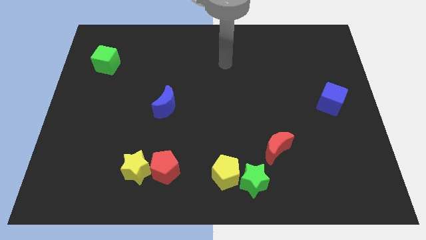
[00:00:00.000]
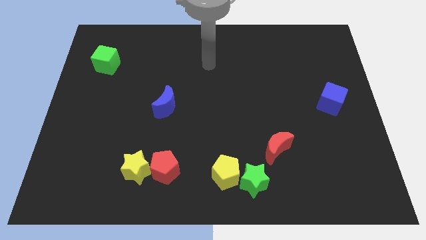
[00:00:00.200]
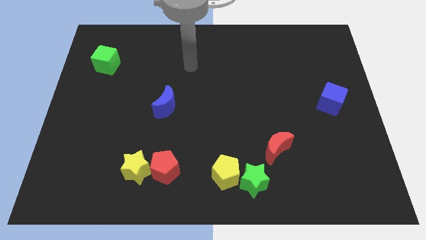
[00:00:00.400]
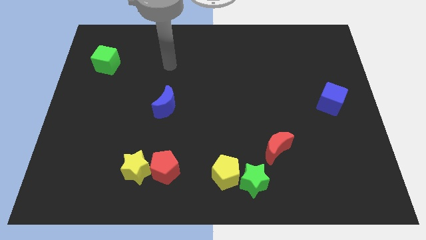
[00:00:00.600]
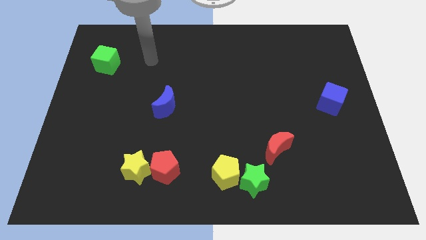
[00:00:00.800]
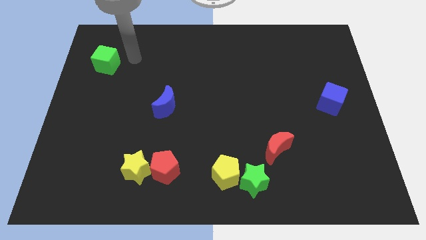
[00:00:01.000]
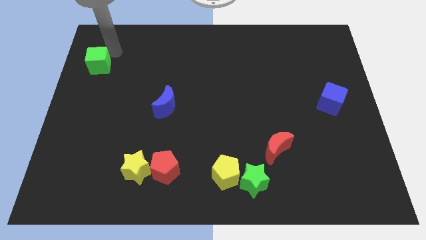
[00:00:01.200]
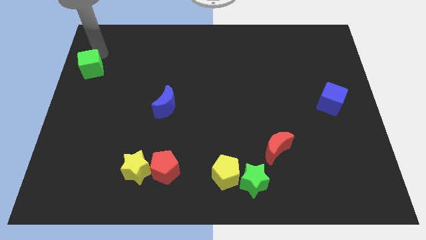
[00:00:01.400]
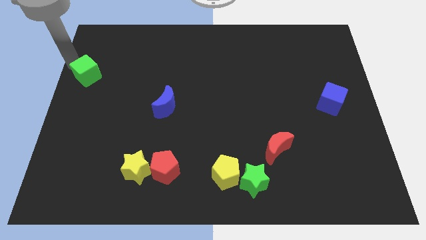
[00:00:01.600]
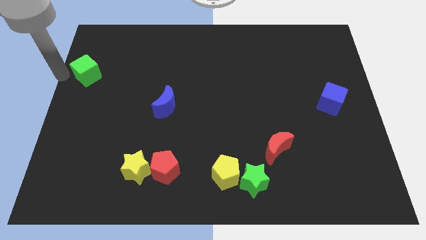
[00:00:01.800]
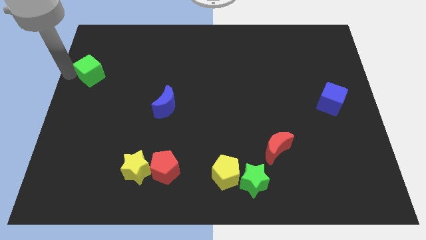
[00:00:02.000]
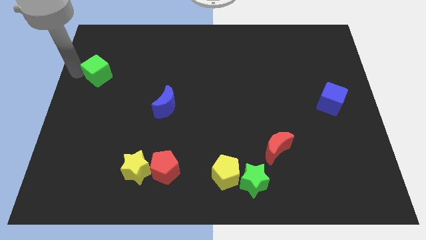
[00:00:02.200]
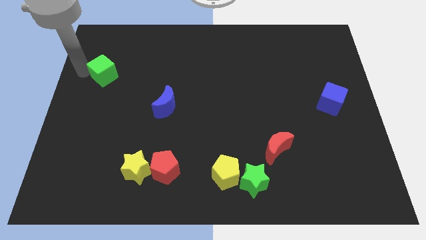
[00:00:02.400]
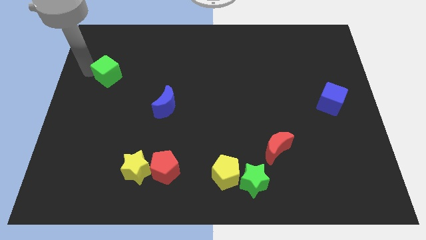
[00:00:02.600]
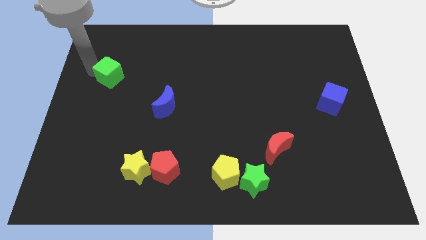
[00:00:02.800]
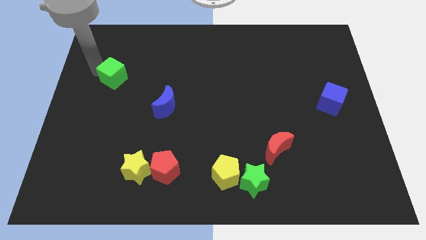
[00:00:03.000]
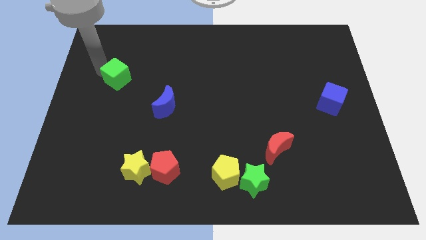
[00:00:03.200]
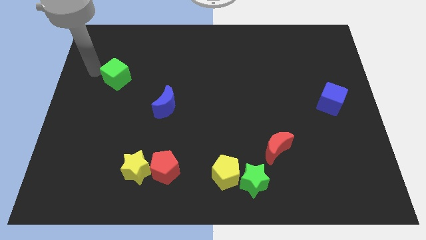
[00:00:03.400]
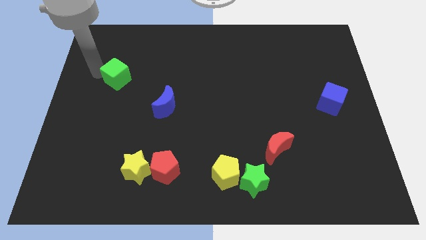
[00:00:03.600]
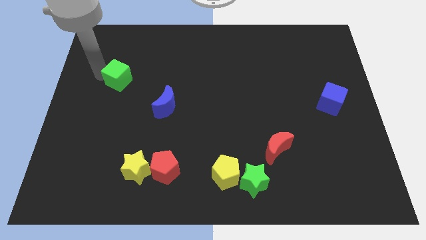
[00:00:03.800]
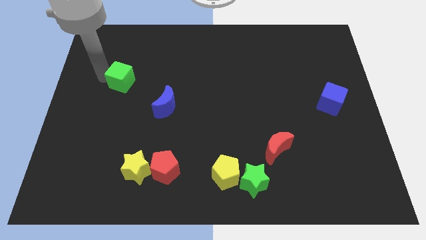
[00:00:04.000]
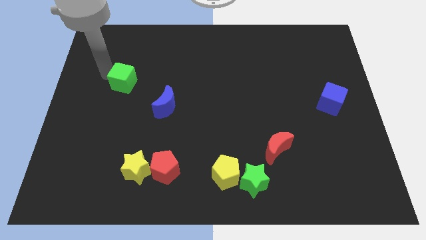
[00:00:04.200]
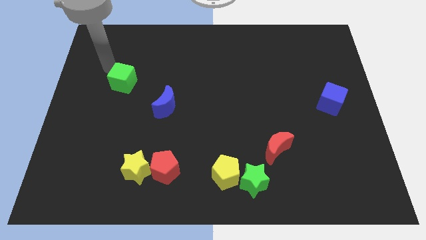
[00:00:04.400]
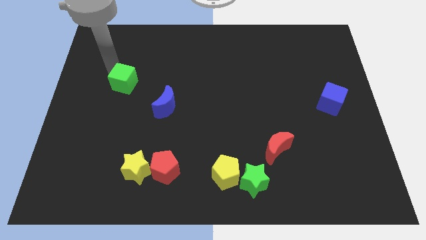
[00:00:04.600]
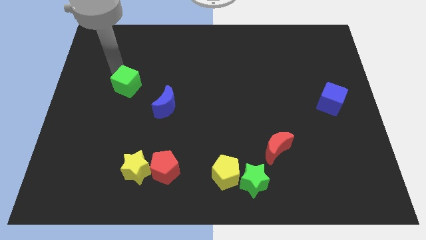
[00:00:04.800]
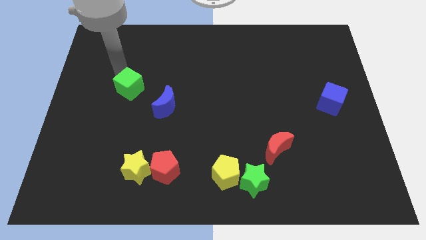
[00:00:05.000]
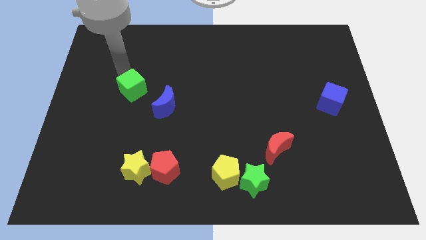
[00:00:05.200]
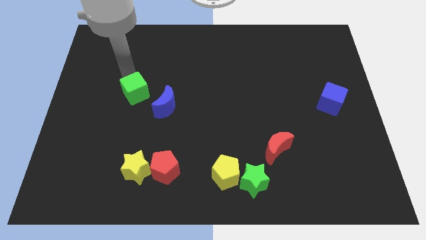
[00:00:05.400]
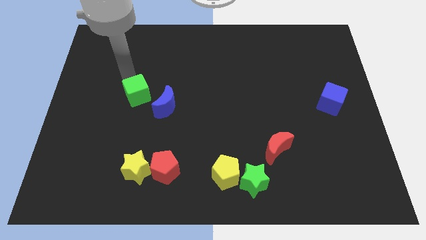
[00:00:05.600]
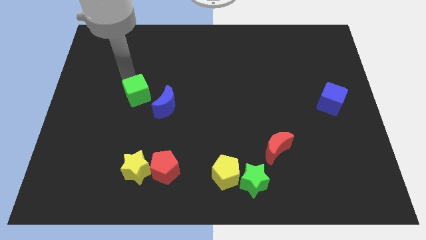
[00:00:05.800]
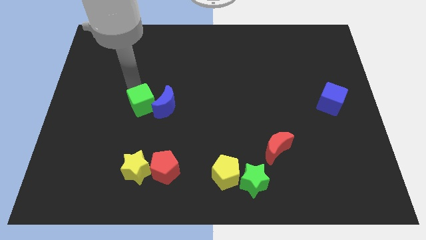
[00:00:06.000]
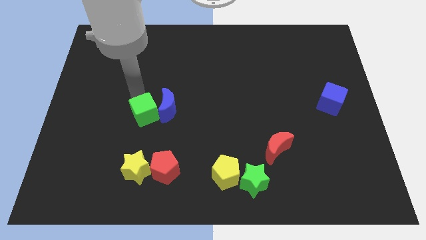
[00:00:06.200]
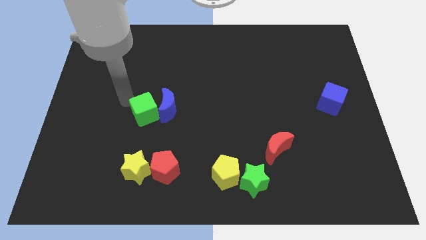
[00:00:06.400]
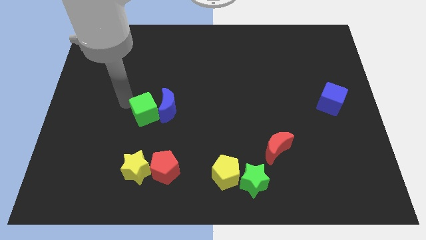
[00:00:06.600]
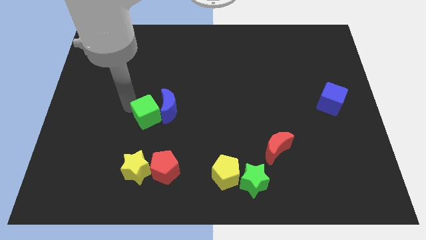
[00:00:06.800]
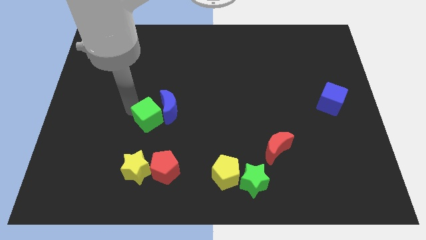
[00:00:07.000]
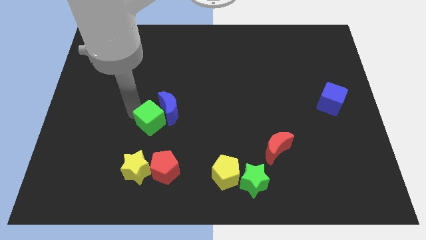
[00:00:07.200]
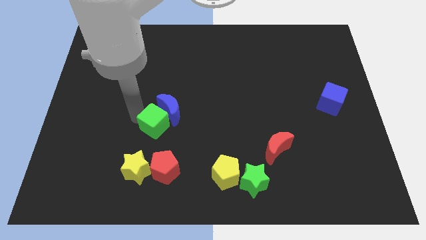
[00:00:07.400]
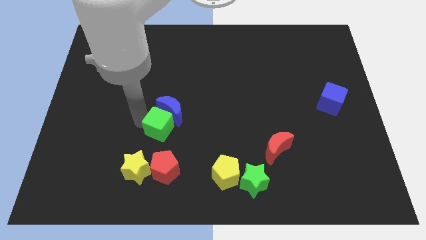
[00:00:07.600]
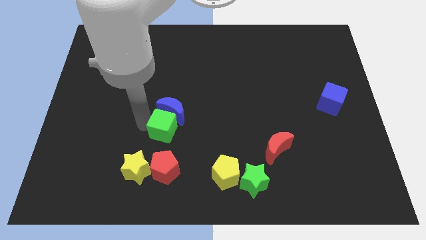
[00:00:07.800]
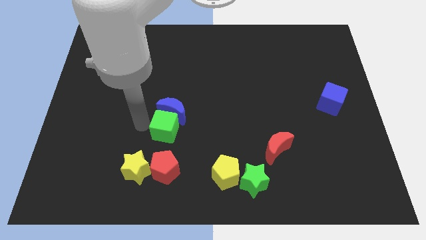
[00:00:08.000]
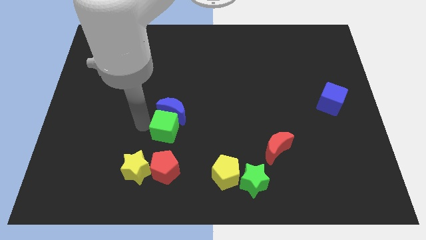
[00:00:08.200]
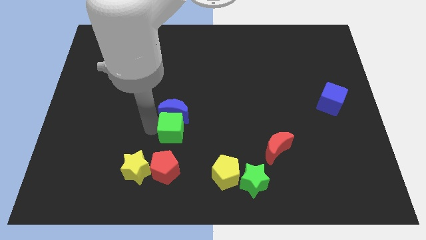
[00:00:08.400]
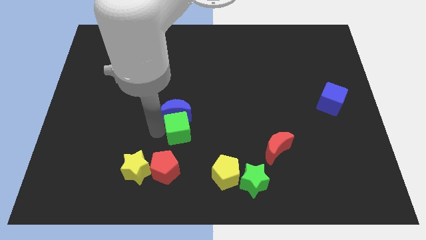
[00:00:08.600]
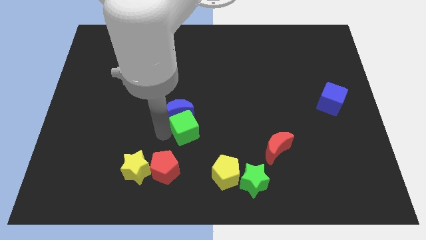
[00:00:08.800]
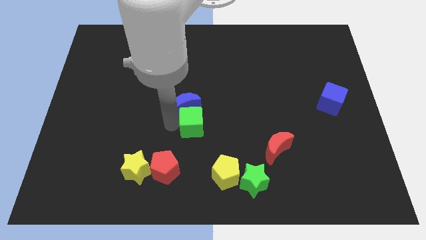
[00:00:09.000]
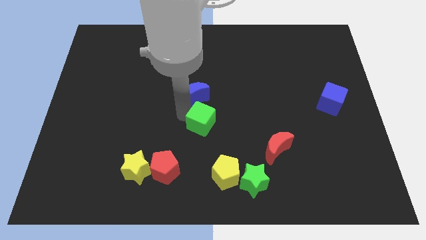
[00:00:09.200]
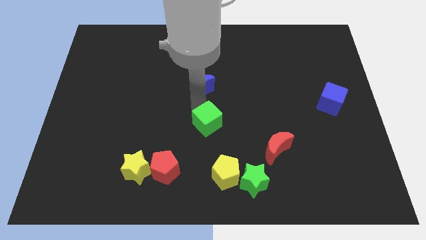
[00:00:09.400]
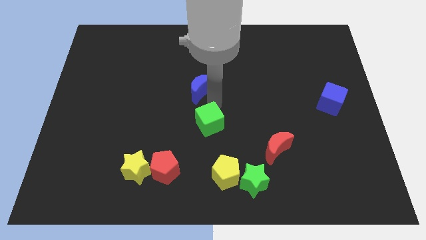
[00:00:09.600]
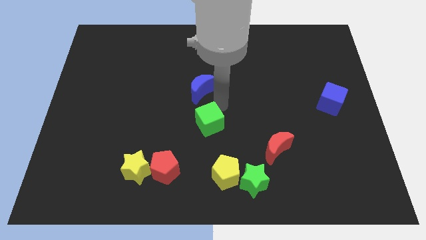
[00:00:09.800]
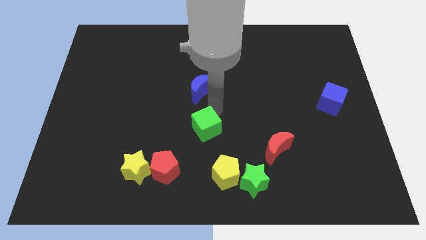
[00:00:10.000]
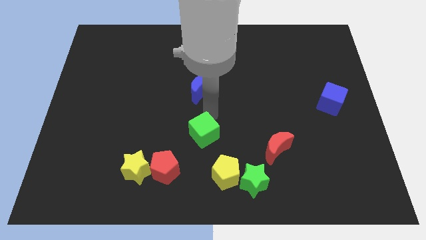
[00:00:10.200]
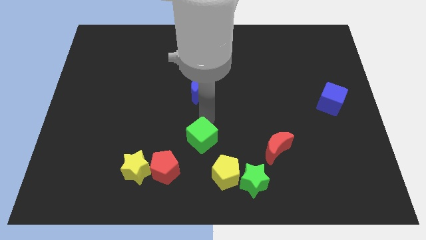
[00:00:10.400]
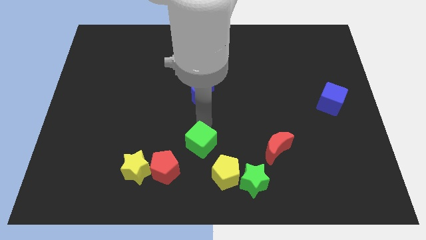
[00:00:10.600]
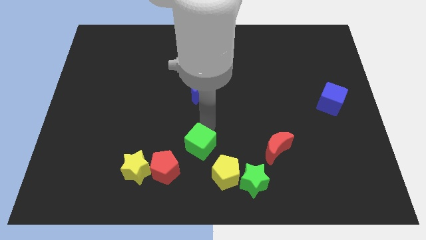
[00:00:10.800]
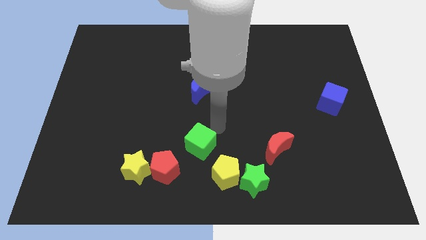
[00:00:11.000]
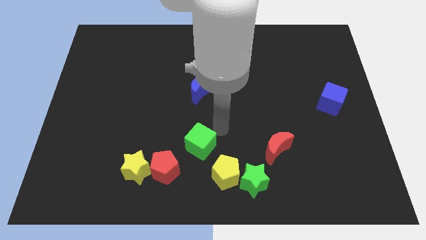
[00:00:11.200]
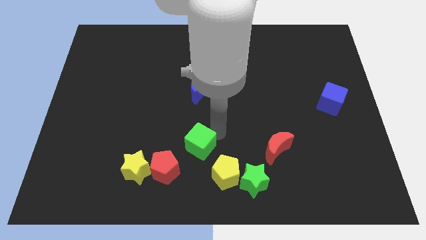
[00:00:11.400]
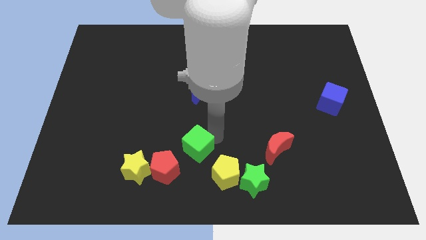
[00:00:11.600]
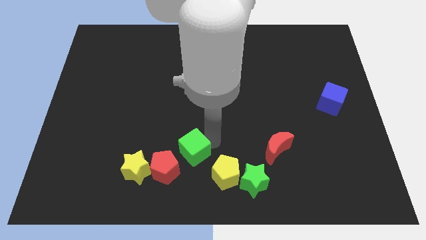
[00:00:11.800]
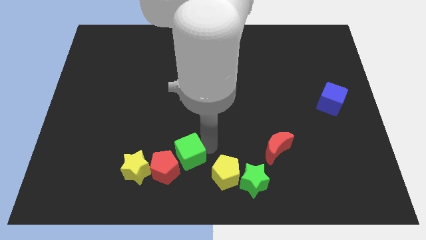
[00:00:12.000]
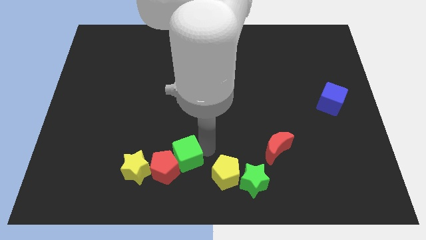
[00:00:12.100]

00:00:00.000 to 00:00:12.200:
push the green cube to the bottom
